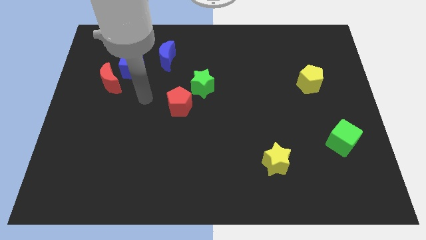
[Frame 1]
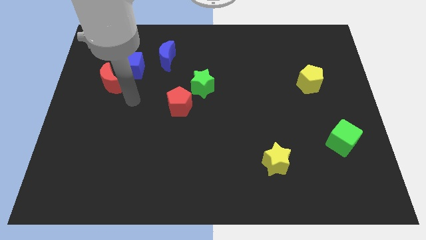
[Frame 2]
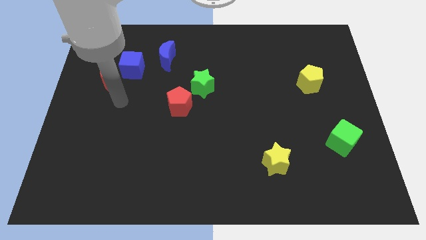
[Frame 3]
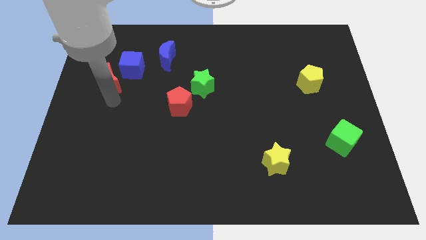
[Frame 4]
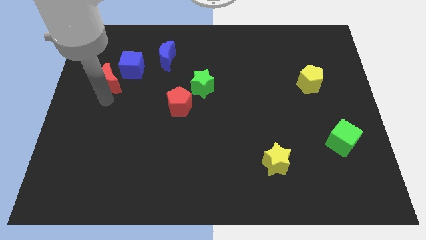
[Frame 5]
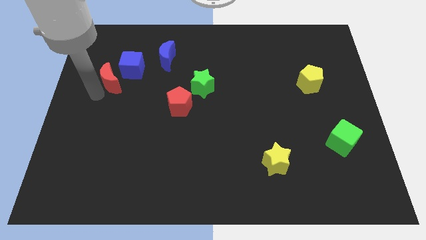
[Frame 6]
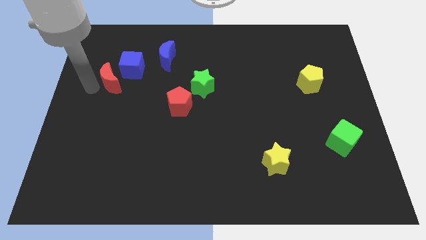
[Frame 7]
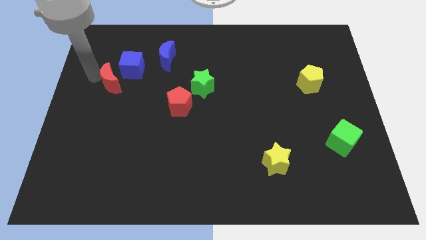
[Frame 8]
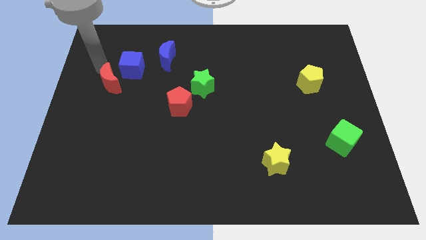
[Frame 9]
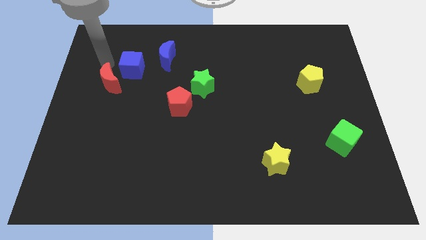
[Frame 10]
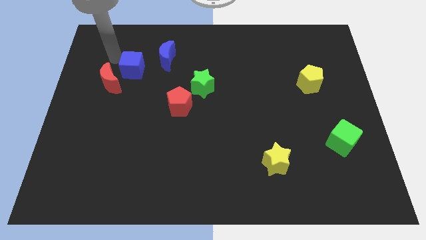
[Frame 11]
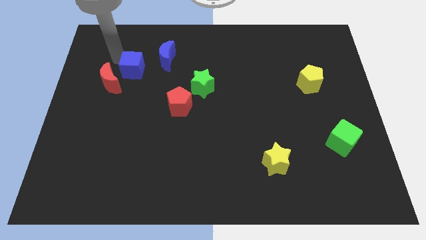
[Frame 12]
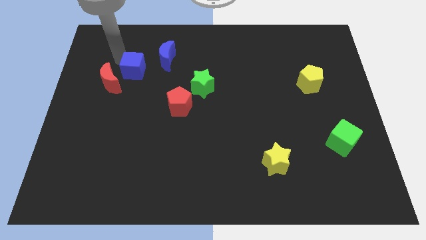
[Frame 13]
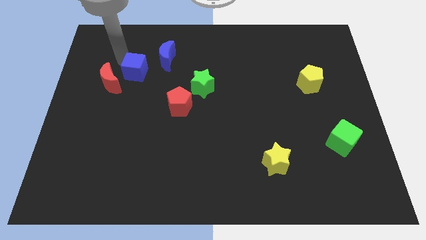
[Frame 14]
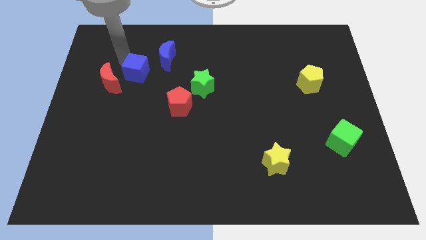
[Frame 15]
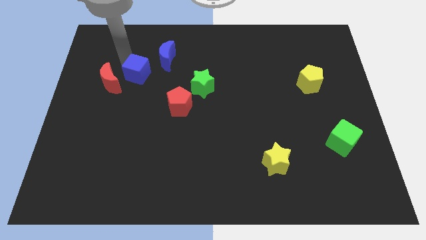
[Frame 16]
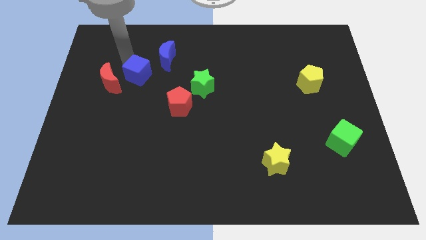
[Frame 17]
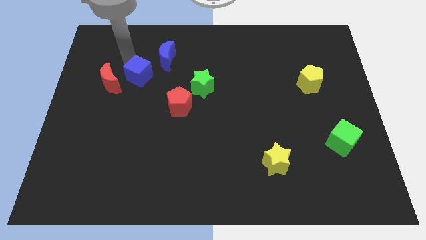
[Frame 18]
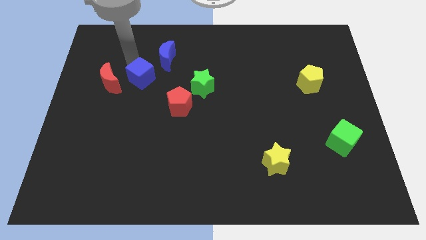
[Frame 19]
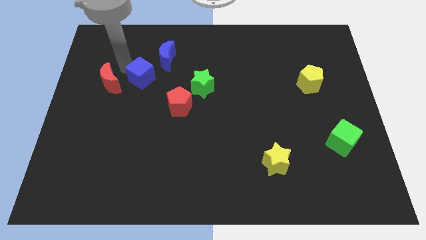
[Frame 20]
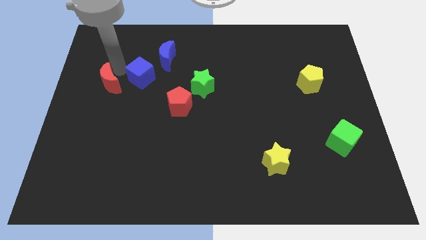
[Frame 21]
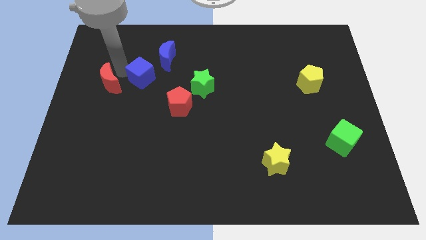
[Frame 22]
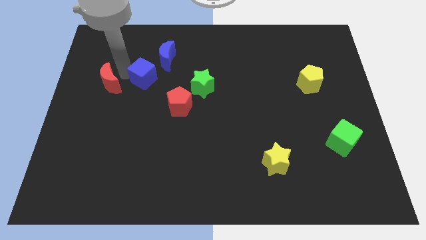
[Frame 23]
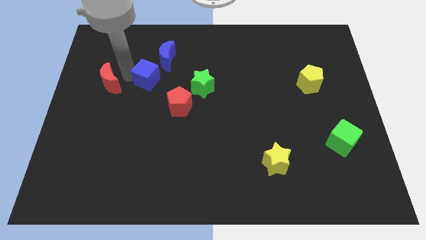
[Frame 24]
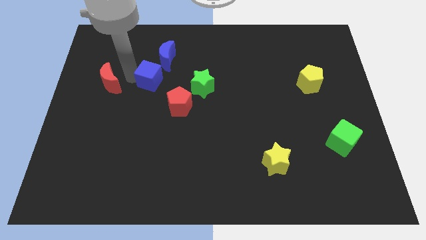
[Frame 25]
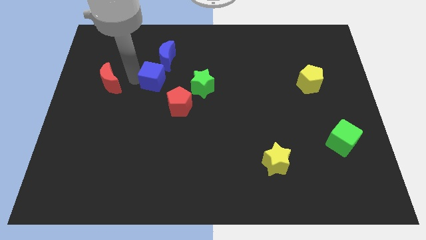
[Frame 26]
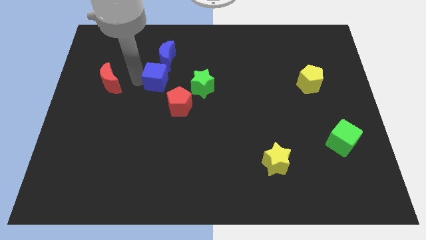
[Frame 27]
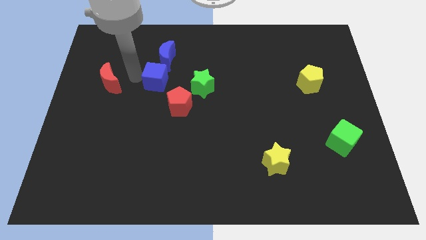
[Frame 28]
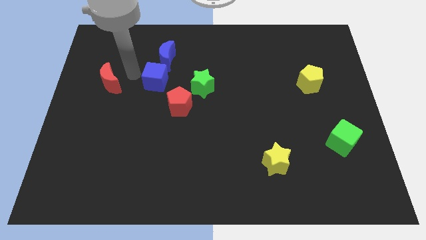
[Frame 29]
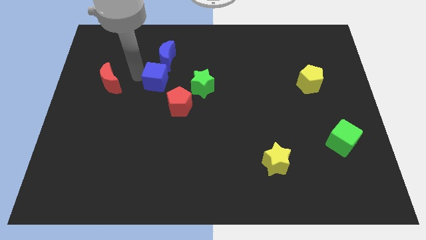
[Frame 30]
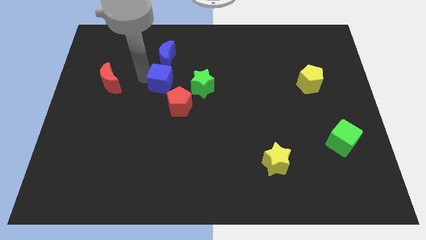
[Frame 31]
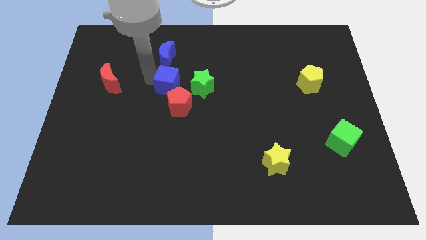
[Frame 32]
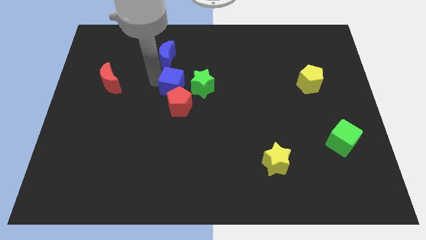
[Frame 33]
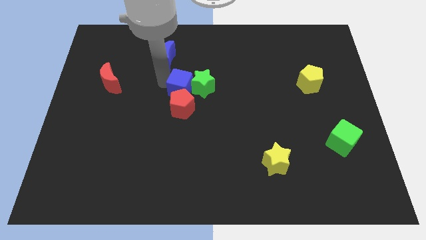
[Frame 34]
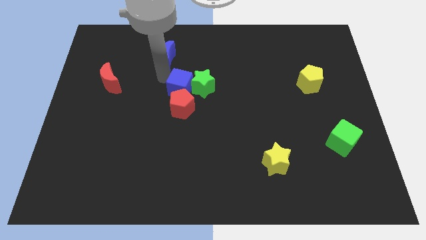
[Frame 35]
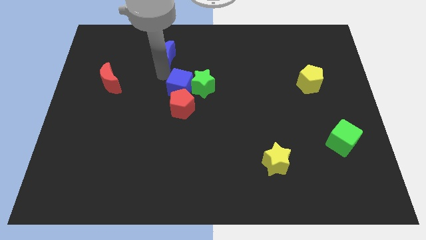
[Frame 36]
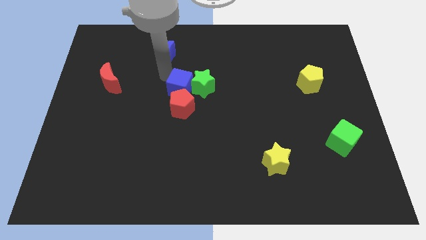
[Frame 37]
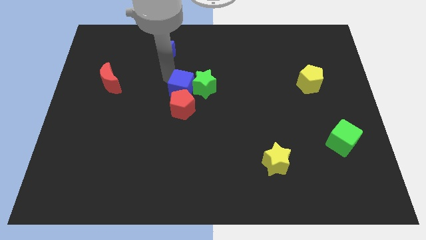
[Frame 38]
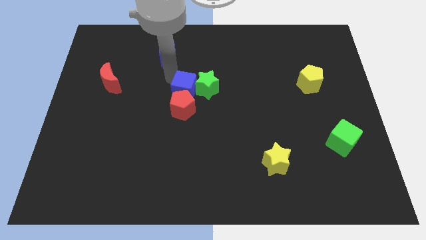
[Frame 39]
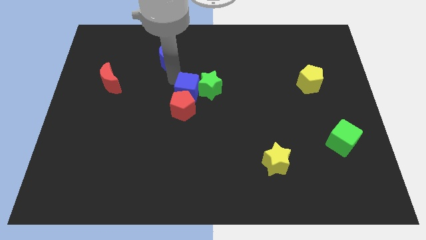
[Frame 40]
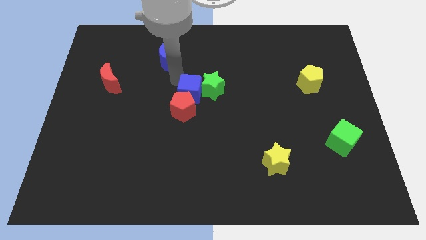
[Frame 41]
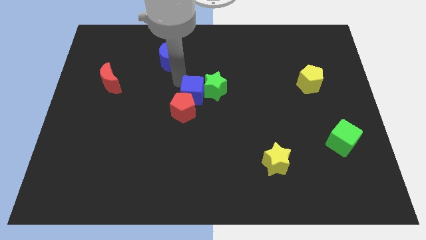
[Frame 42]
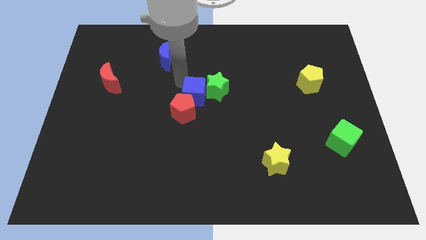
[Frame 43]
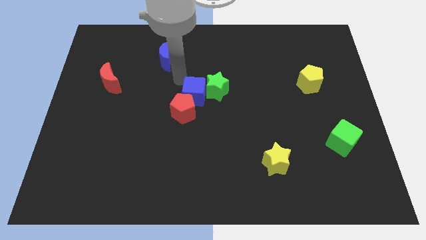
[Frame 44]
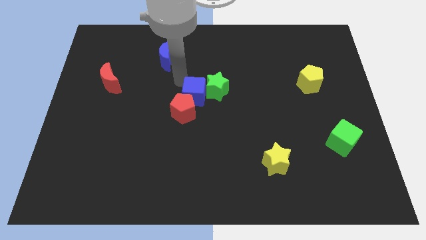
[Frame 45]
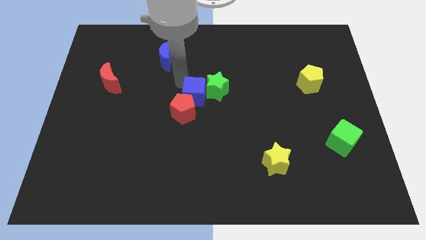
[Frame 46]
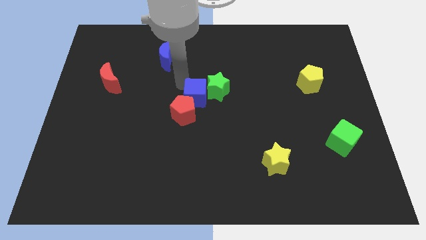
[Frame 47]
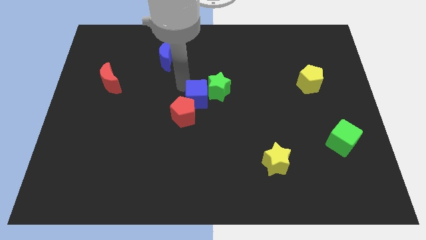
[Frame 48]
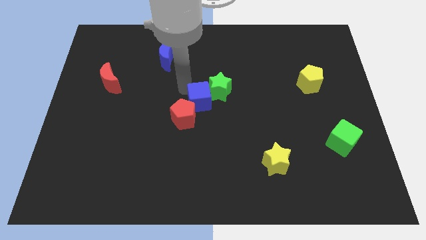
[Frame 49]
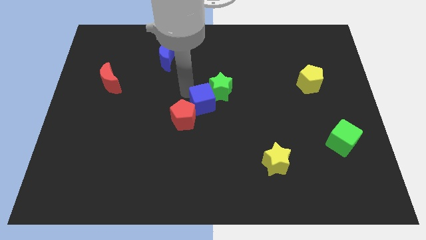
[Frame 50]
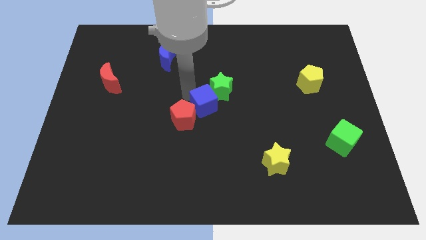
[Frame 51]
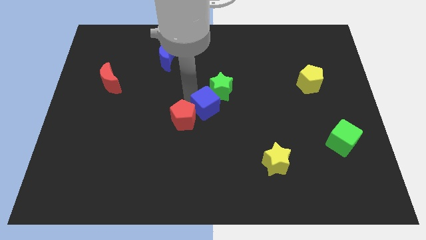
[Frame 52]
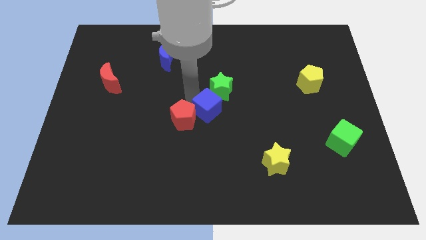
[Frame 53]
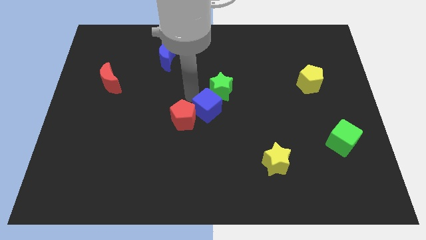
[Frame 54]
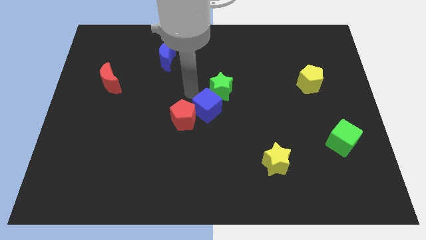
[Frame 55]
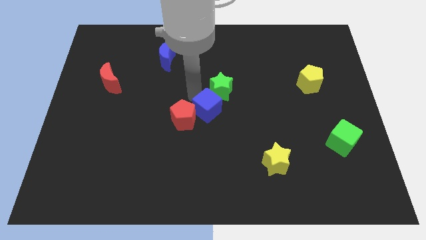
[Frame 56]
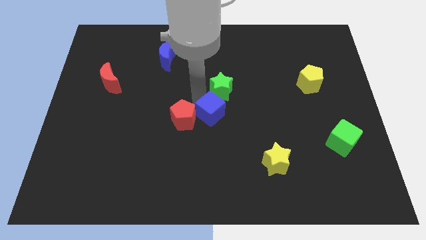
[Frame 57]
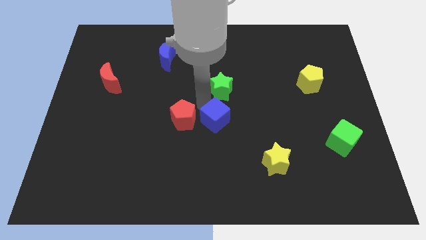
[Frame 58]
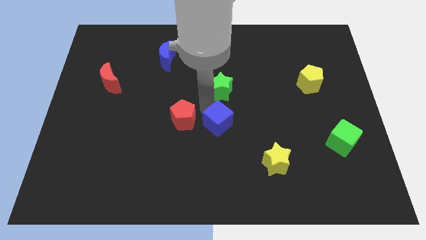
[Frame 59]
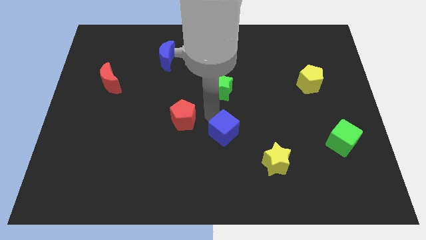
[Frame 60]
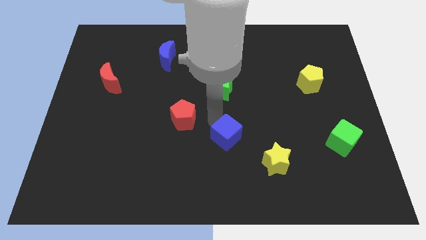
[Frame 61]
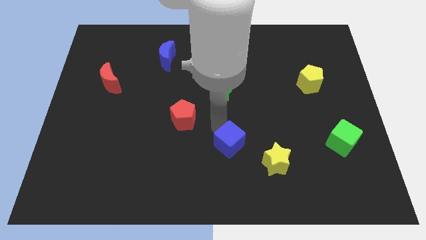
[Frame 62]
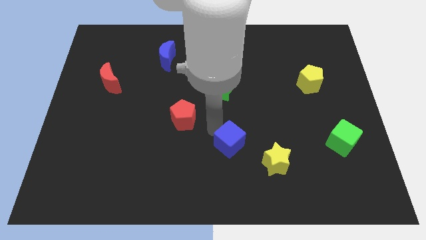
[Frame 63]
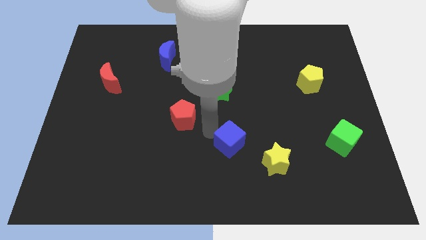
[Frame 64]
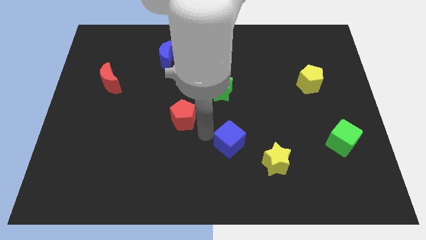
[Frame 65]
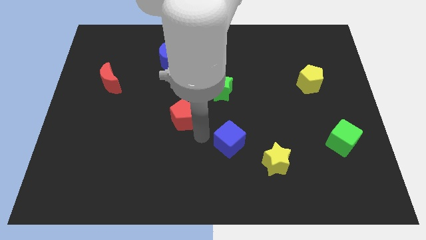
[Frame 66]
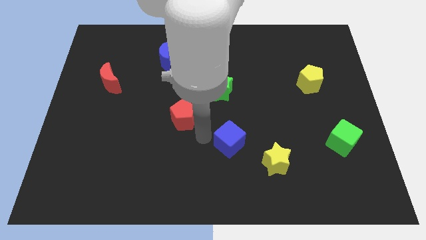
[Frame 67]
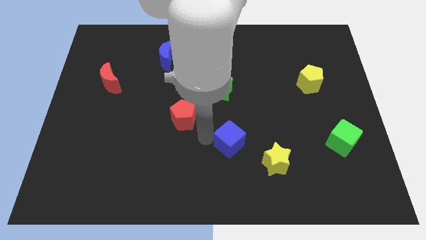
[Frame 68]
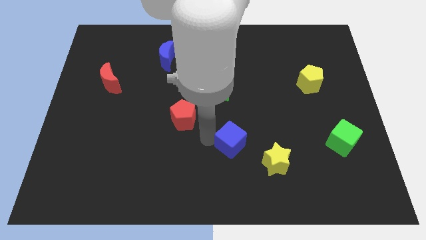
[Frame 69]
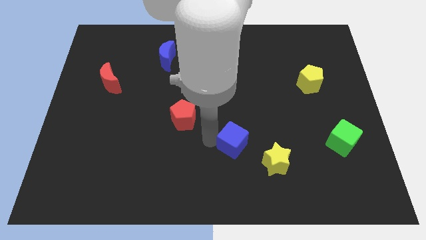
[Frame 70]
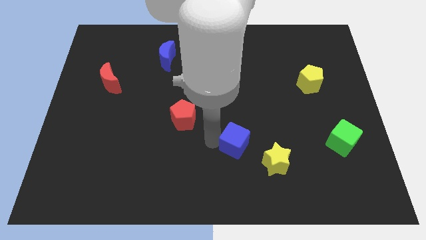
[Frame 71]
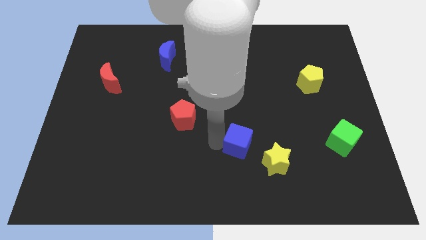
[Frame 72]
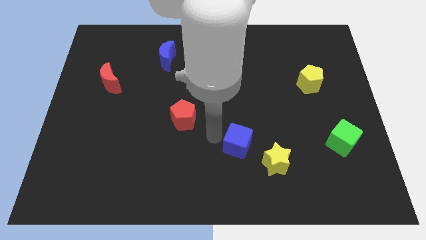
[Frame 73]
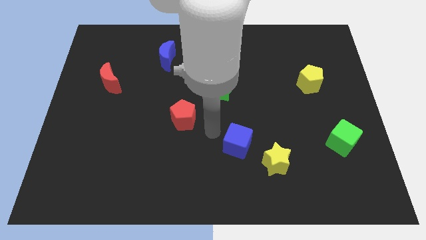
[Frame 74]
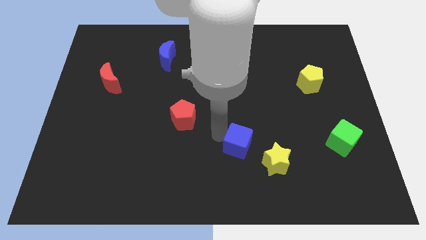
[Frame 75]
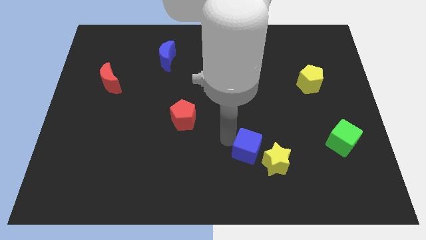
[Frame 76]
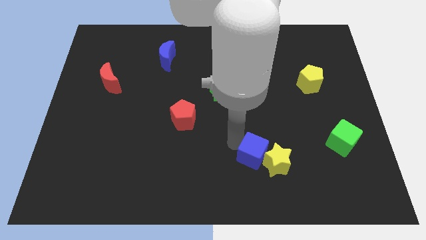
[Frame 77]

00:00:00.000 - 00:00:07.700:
push the blue cube next to the yellow star
